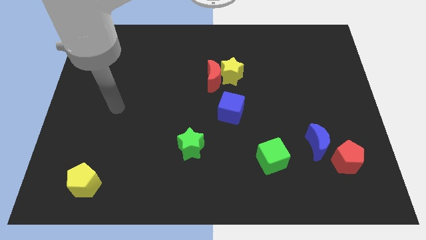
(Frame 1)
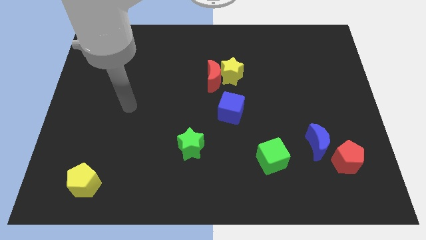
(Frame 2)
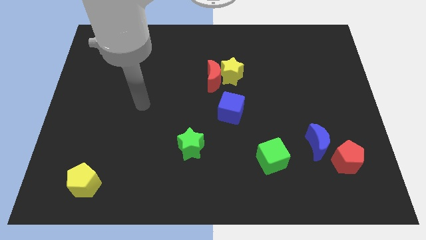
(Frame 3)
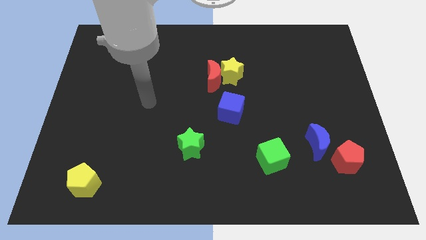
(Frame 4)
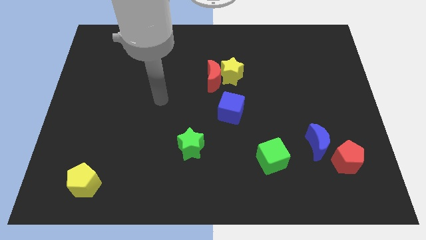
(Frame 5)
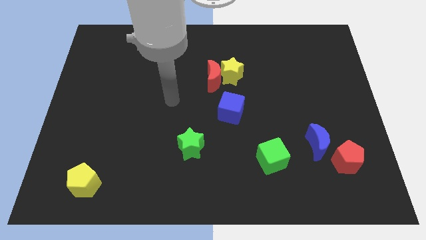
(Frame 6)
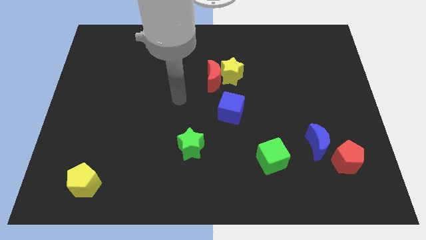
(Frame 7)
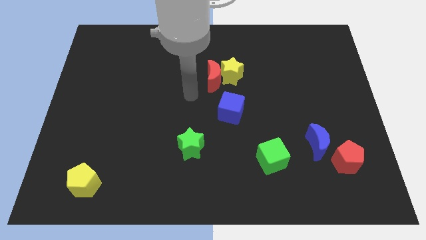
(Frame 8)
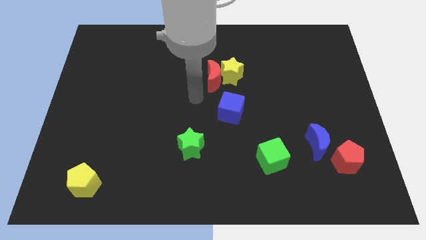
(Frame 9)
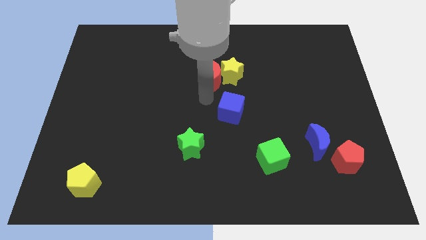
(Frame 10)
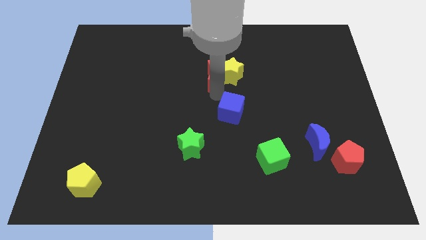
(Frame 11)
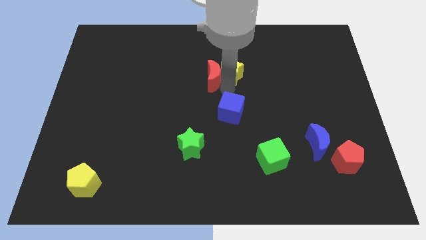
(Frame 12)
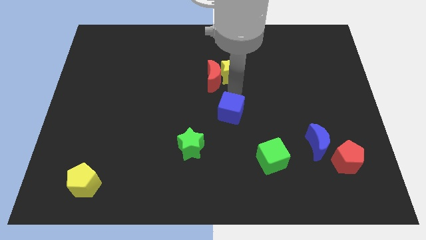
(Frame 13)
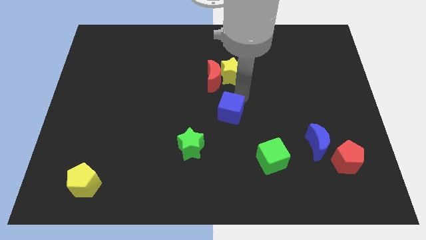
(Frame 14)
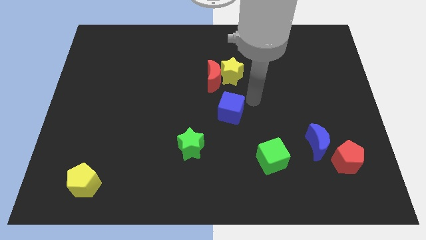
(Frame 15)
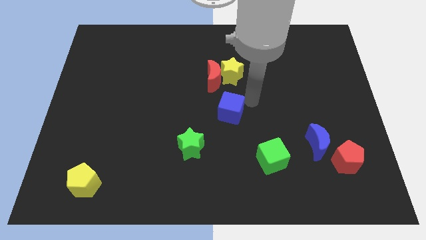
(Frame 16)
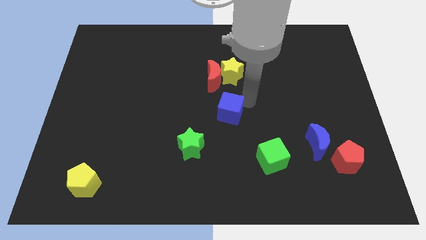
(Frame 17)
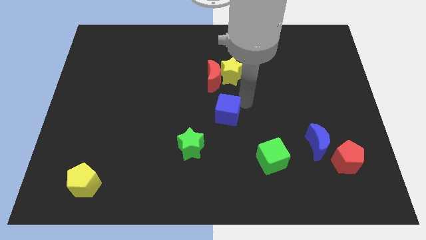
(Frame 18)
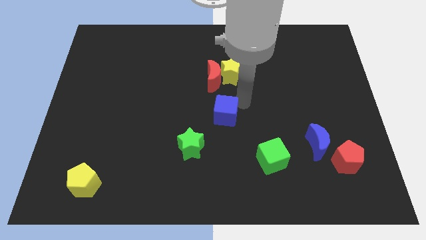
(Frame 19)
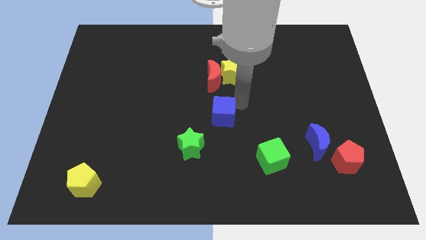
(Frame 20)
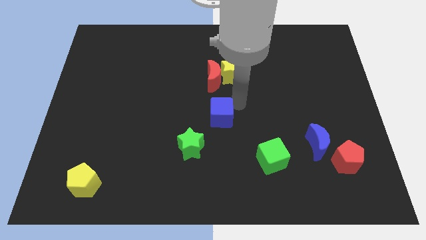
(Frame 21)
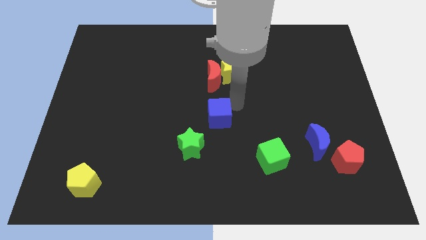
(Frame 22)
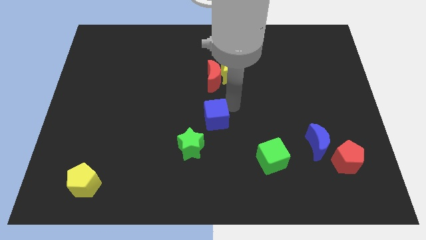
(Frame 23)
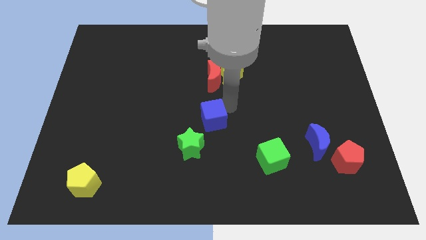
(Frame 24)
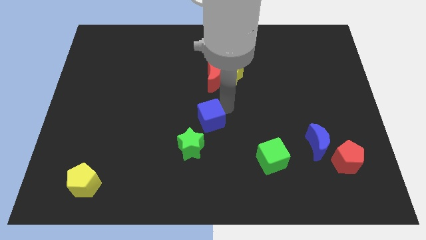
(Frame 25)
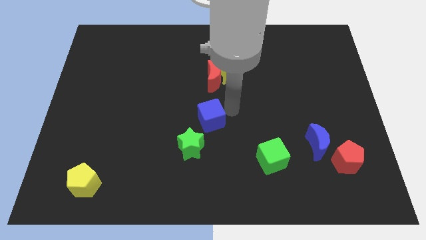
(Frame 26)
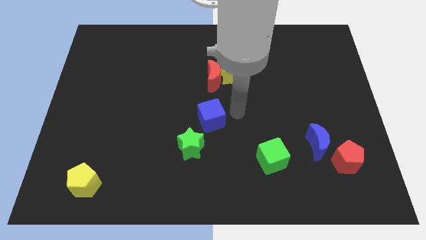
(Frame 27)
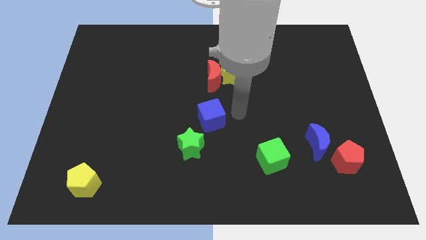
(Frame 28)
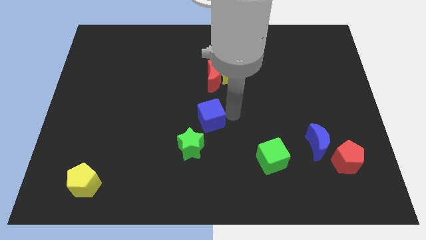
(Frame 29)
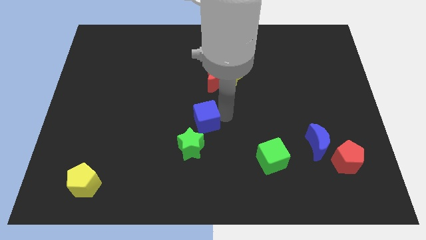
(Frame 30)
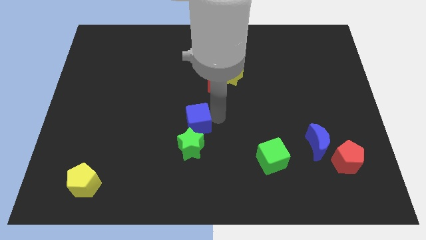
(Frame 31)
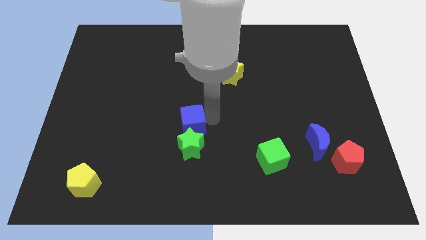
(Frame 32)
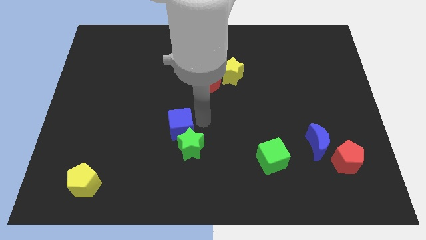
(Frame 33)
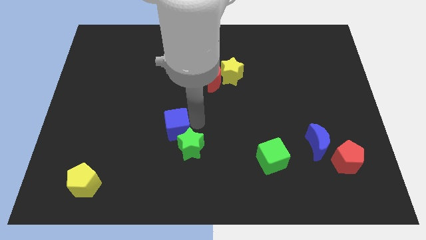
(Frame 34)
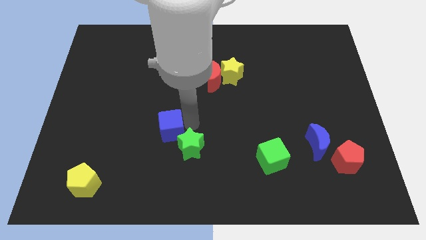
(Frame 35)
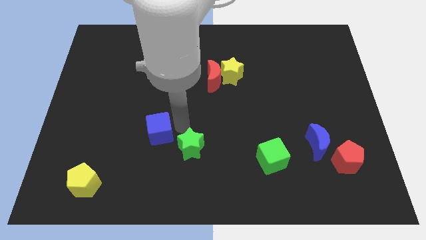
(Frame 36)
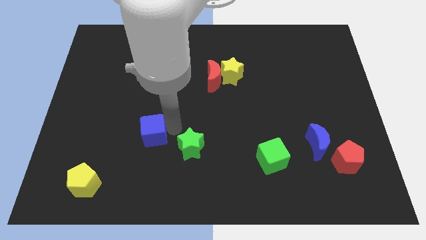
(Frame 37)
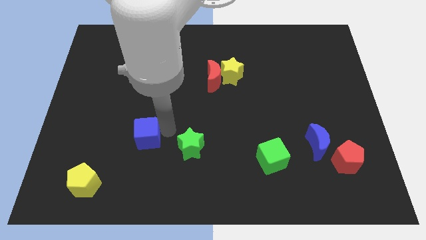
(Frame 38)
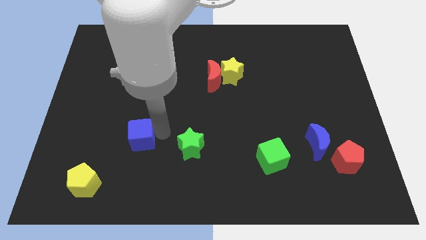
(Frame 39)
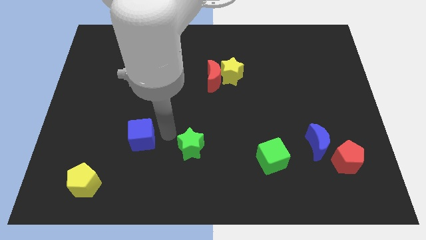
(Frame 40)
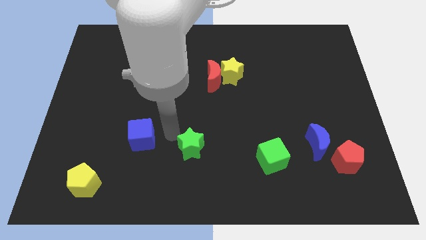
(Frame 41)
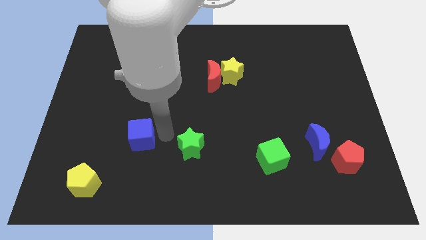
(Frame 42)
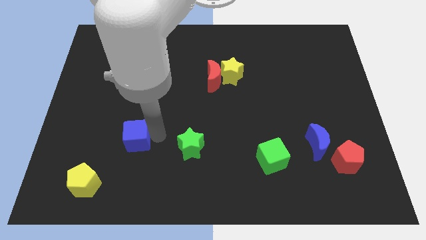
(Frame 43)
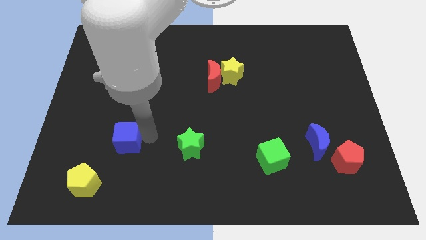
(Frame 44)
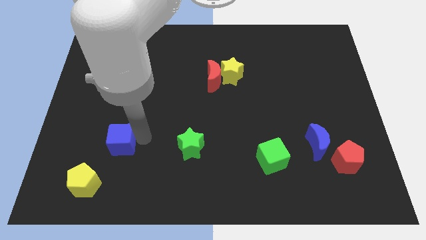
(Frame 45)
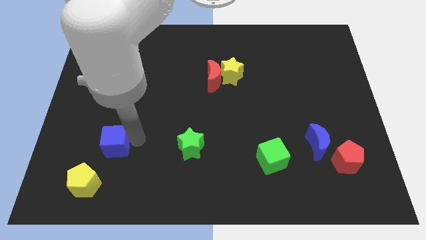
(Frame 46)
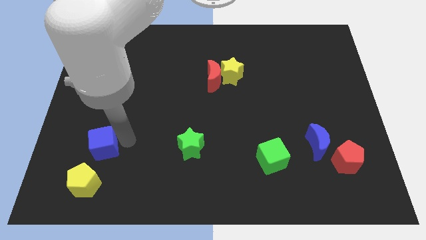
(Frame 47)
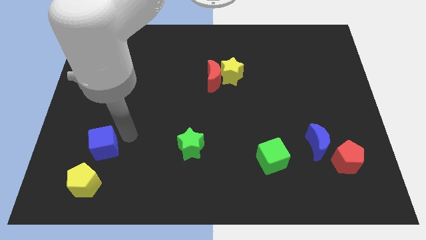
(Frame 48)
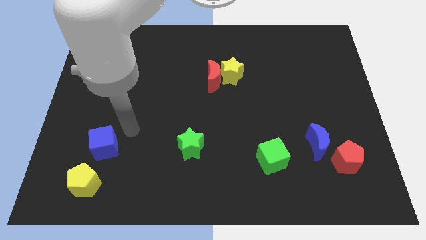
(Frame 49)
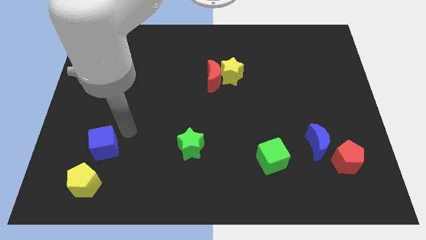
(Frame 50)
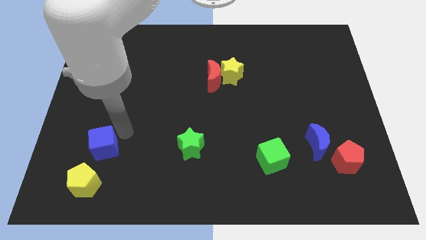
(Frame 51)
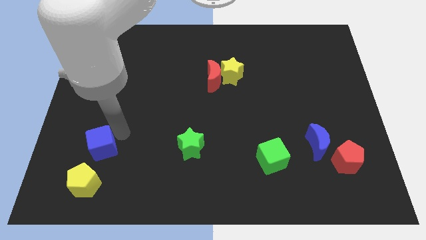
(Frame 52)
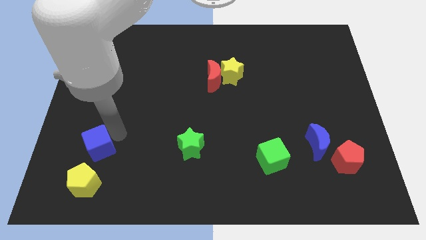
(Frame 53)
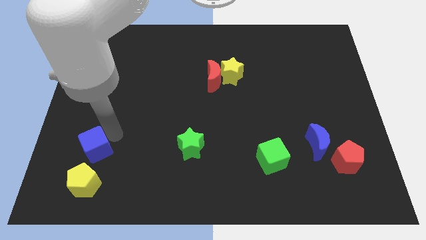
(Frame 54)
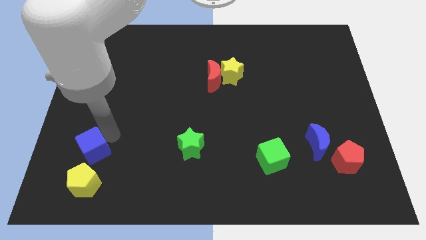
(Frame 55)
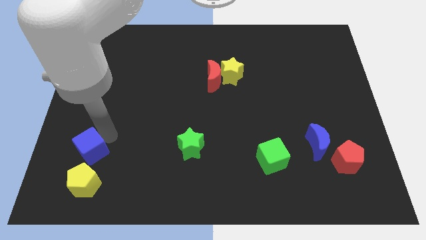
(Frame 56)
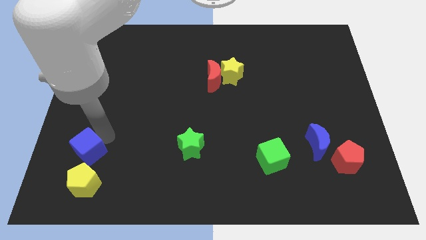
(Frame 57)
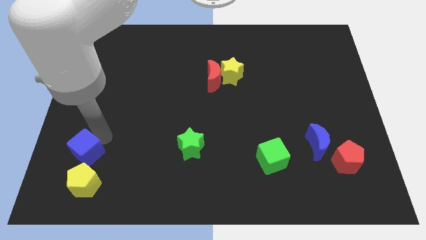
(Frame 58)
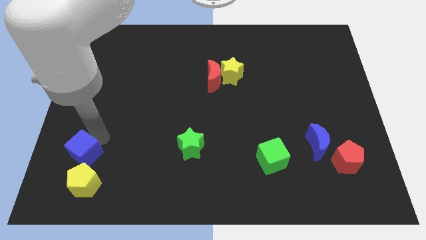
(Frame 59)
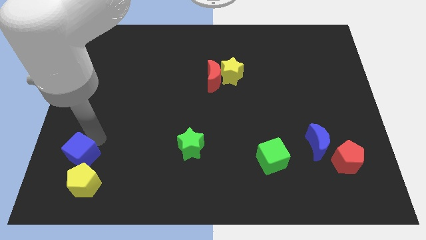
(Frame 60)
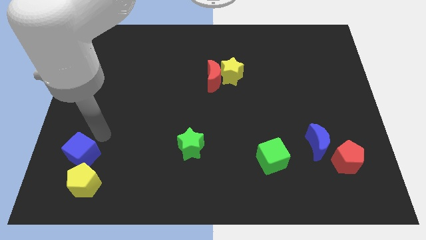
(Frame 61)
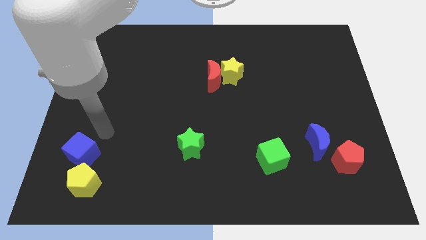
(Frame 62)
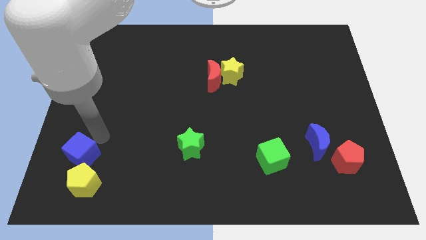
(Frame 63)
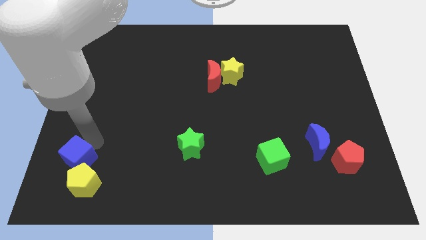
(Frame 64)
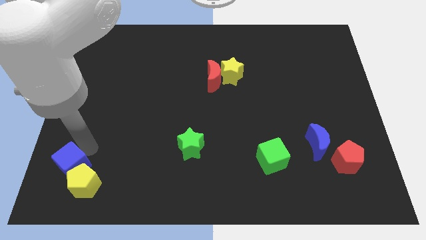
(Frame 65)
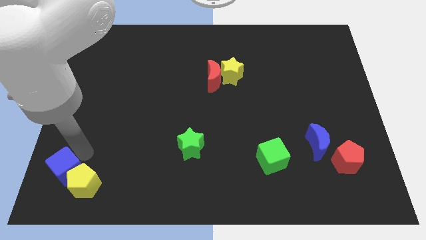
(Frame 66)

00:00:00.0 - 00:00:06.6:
put the blue cube to the bottom left corner

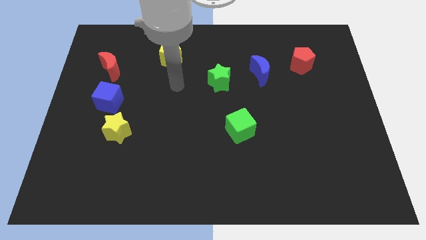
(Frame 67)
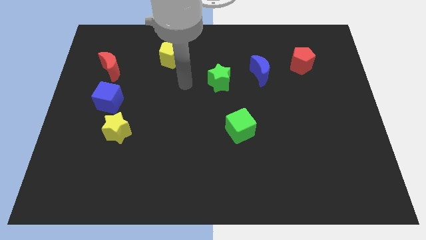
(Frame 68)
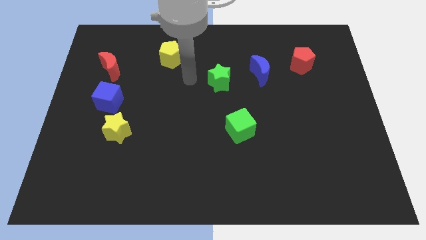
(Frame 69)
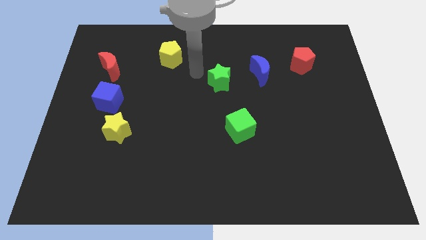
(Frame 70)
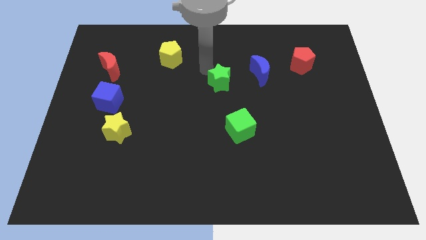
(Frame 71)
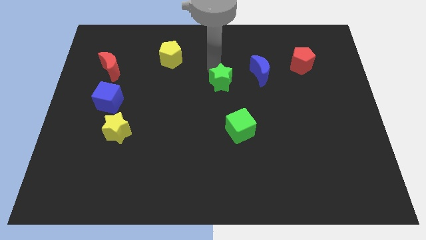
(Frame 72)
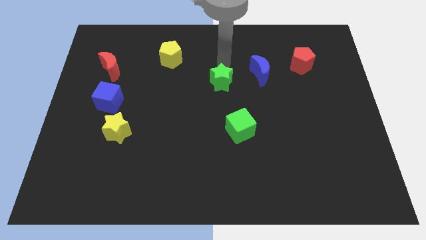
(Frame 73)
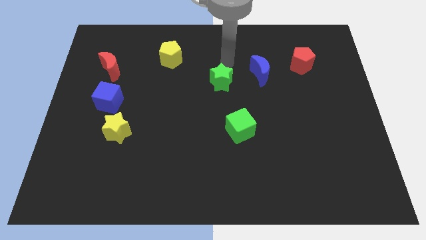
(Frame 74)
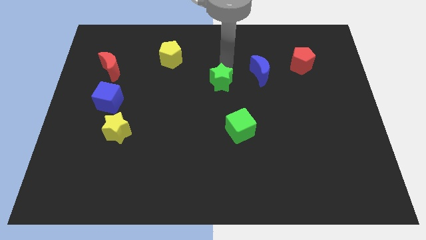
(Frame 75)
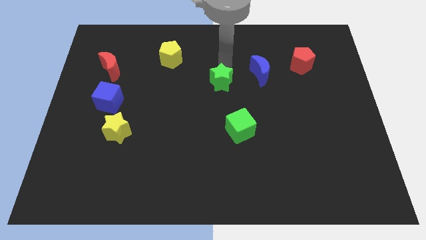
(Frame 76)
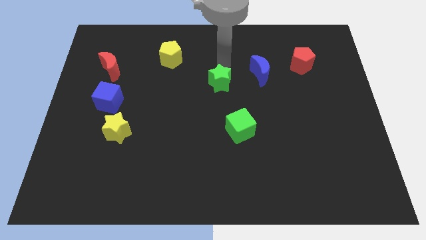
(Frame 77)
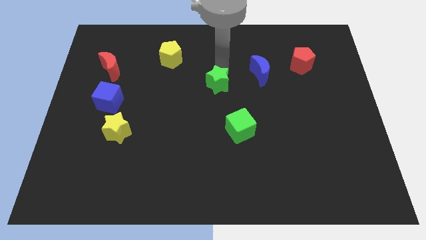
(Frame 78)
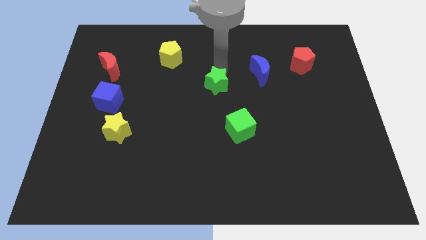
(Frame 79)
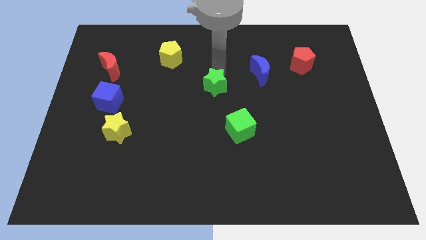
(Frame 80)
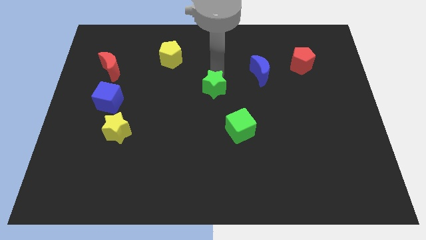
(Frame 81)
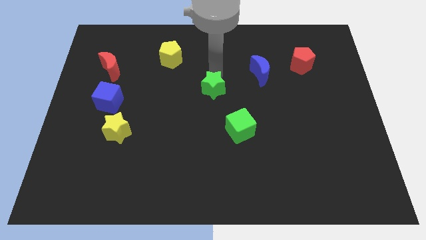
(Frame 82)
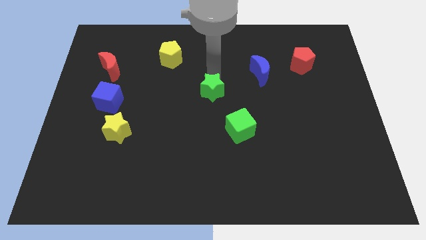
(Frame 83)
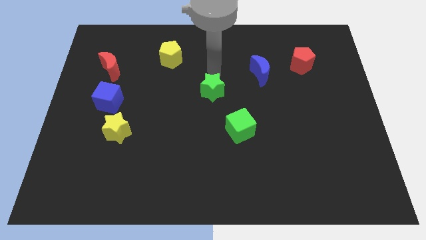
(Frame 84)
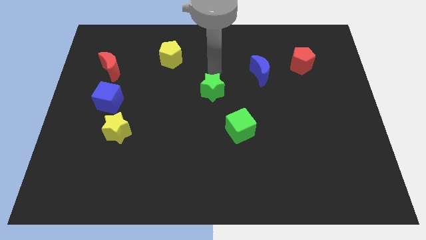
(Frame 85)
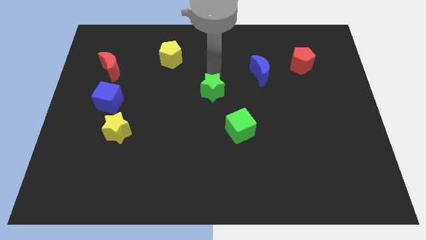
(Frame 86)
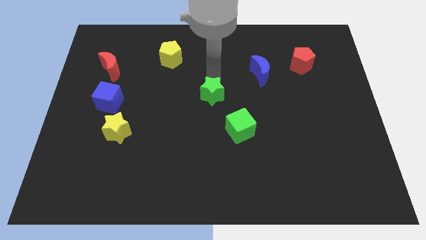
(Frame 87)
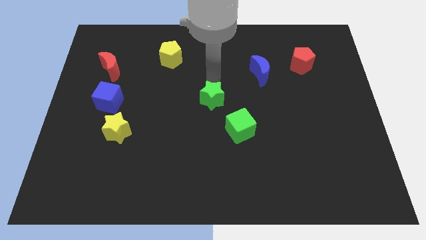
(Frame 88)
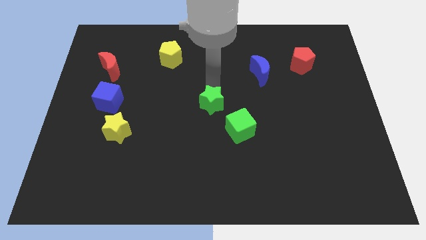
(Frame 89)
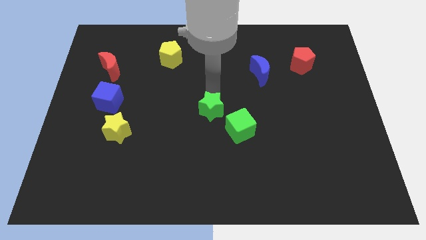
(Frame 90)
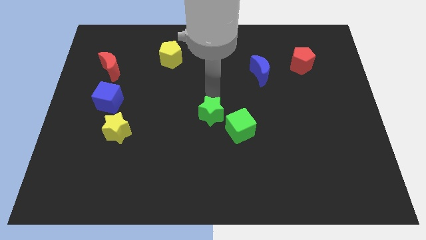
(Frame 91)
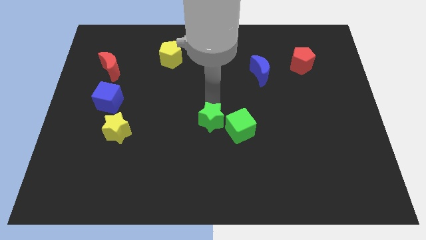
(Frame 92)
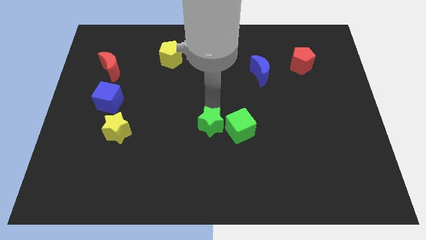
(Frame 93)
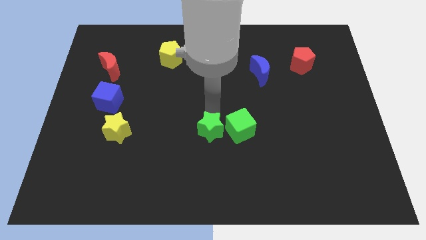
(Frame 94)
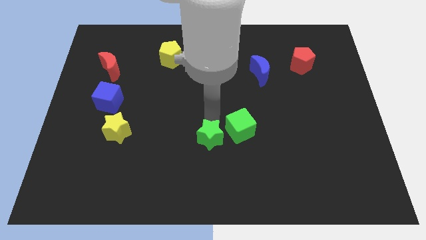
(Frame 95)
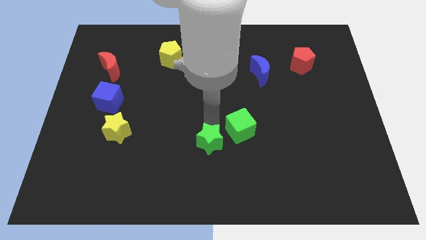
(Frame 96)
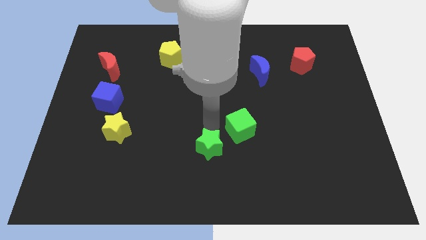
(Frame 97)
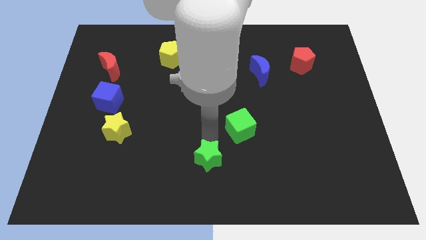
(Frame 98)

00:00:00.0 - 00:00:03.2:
slide the green star to the bottom
